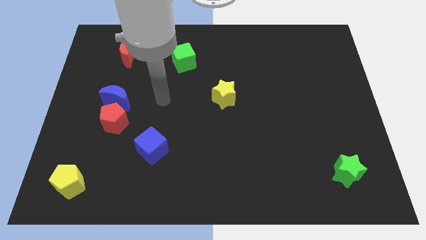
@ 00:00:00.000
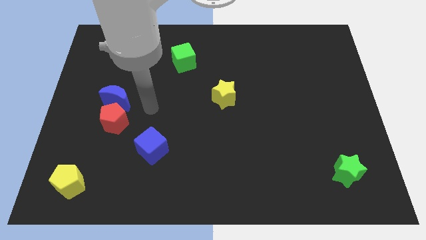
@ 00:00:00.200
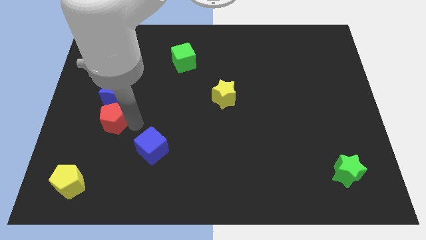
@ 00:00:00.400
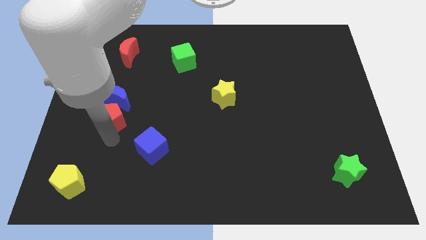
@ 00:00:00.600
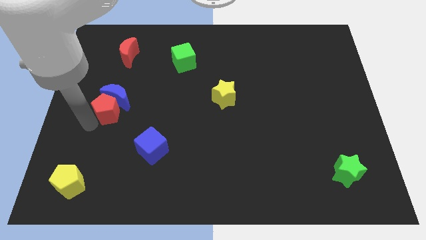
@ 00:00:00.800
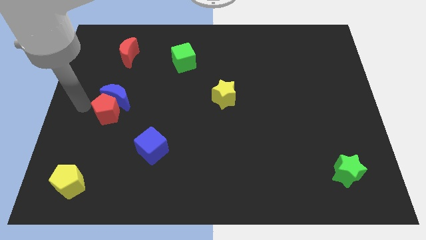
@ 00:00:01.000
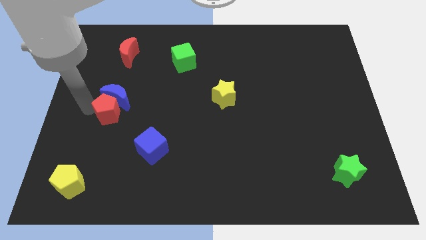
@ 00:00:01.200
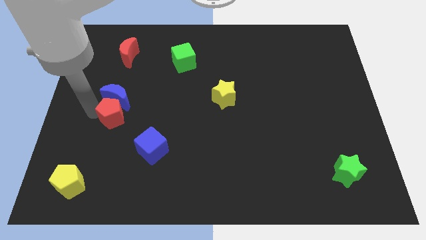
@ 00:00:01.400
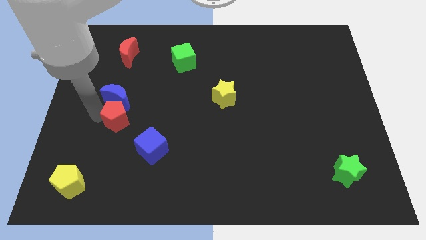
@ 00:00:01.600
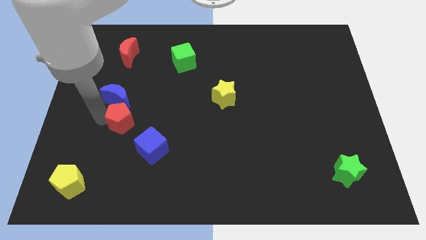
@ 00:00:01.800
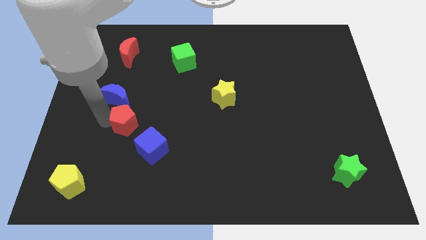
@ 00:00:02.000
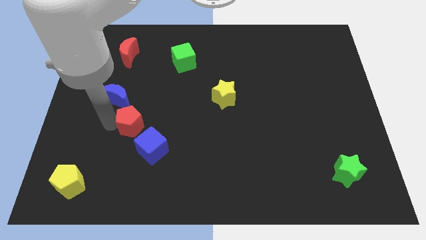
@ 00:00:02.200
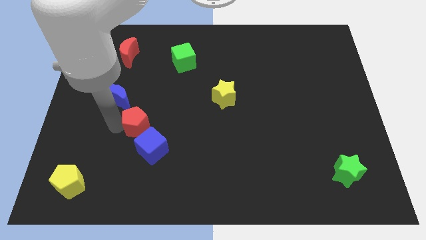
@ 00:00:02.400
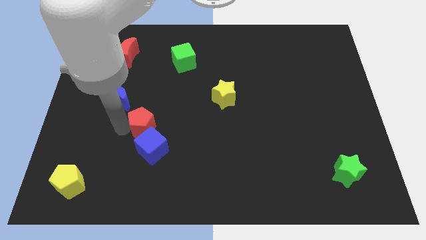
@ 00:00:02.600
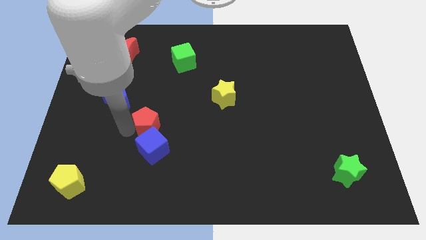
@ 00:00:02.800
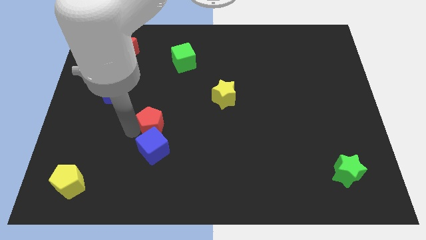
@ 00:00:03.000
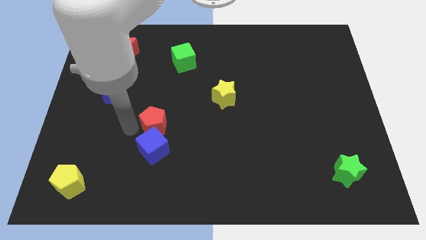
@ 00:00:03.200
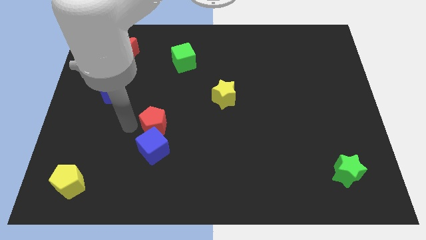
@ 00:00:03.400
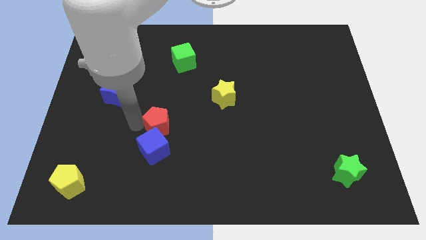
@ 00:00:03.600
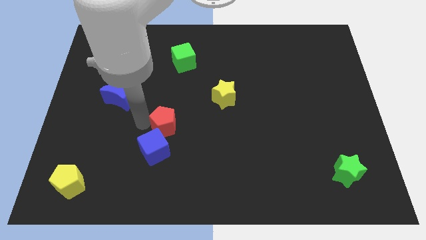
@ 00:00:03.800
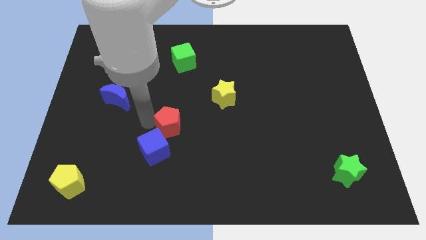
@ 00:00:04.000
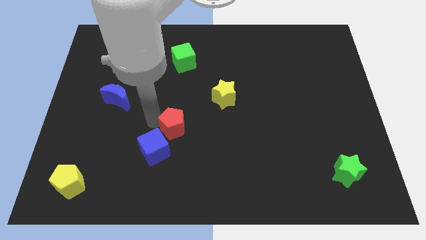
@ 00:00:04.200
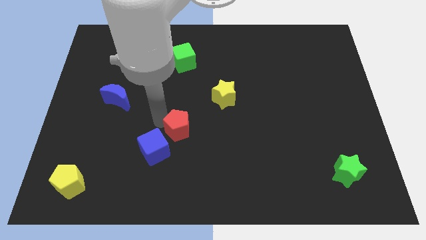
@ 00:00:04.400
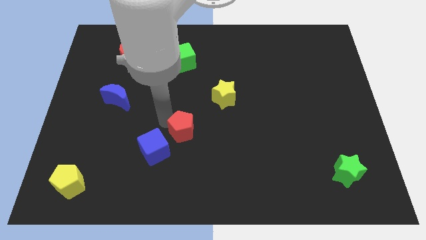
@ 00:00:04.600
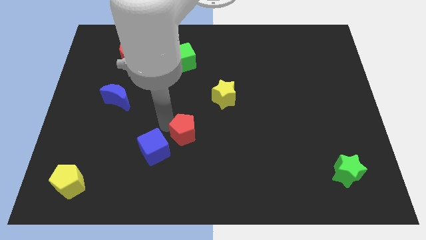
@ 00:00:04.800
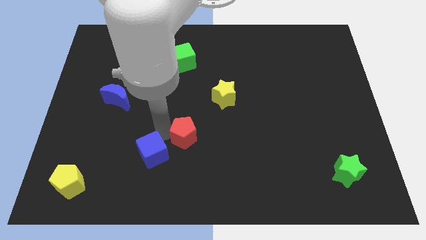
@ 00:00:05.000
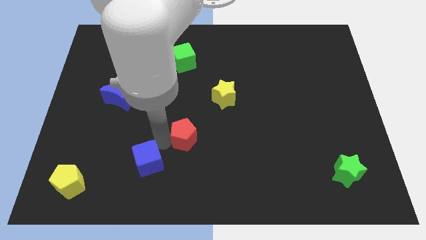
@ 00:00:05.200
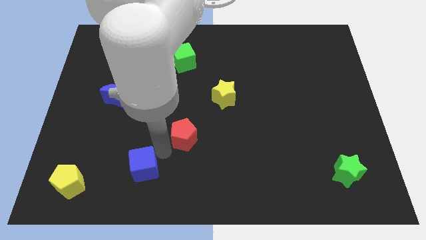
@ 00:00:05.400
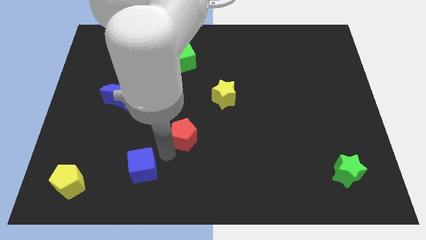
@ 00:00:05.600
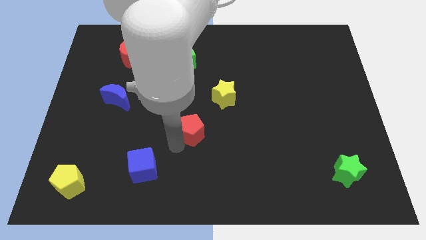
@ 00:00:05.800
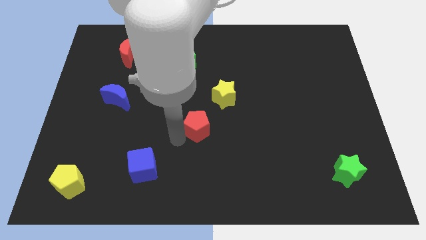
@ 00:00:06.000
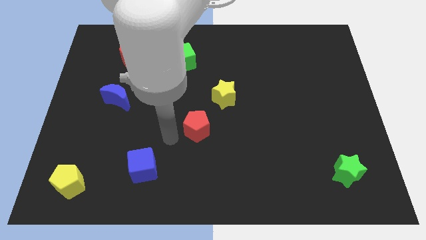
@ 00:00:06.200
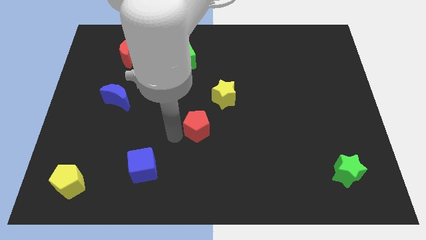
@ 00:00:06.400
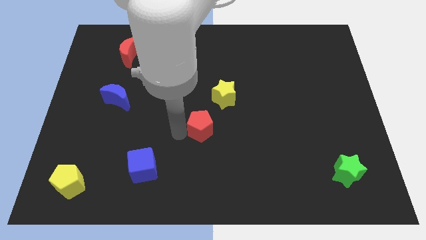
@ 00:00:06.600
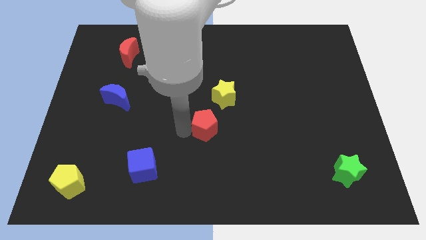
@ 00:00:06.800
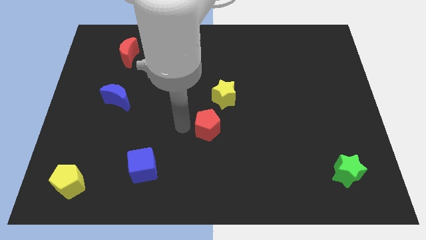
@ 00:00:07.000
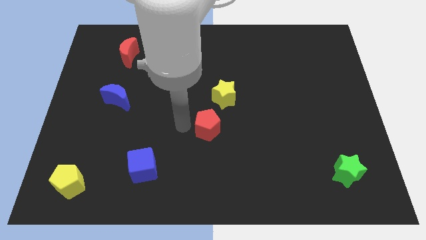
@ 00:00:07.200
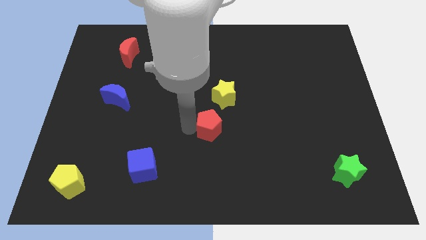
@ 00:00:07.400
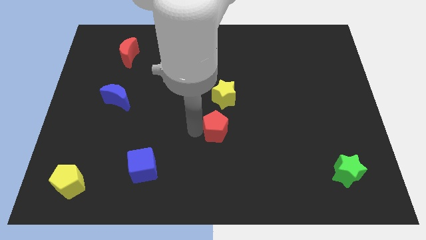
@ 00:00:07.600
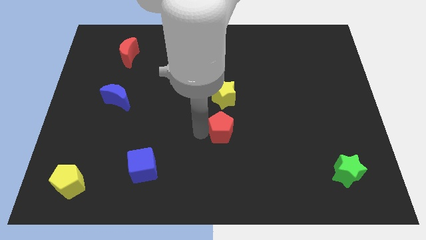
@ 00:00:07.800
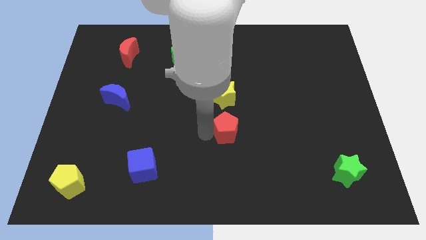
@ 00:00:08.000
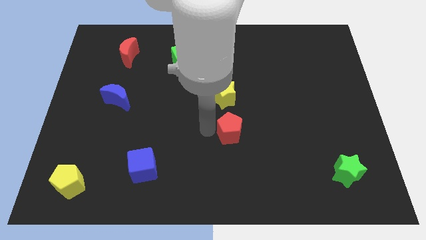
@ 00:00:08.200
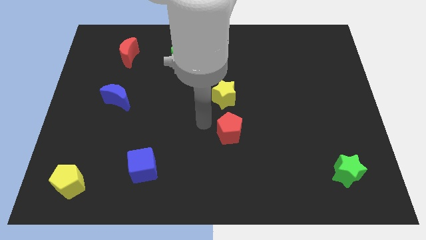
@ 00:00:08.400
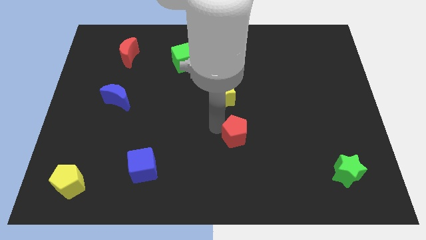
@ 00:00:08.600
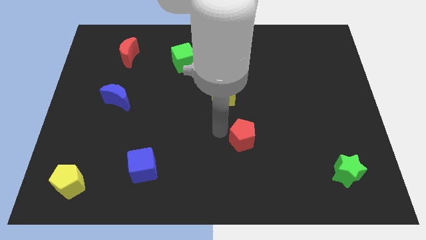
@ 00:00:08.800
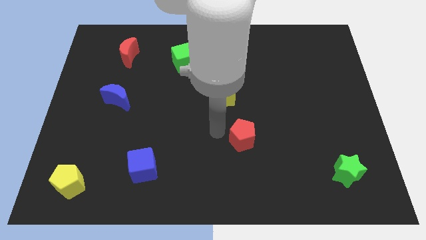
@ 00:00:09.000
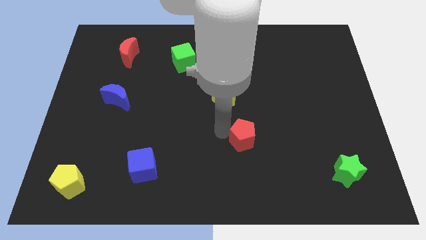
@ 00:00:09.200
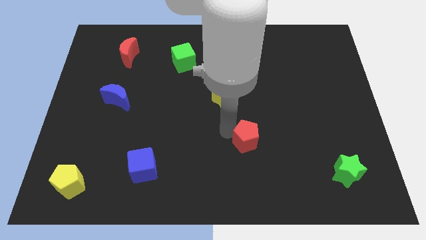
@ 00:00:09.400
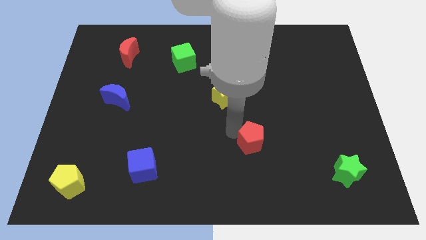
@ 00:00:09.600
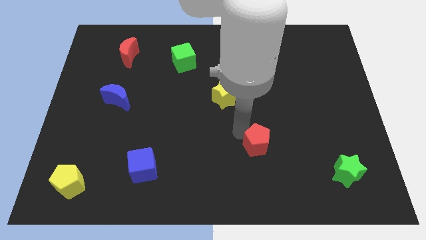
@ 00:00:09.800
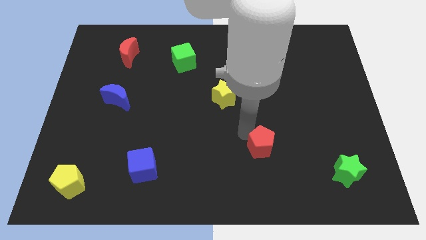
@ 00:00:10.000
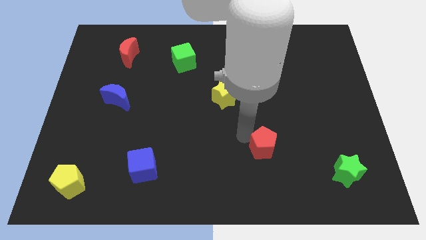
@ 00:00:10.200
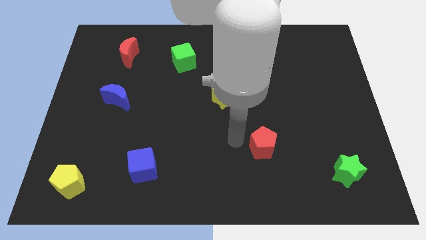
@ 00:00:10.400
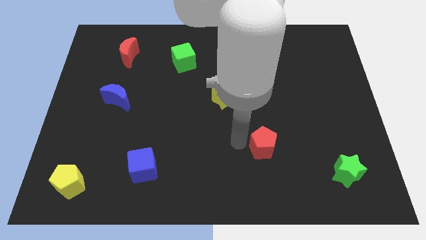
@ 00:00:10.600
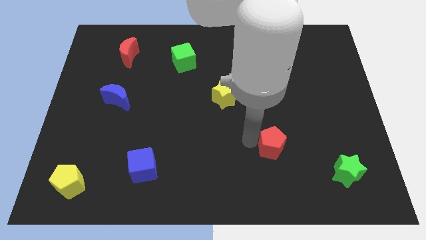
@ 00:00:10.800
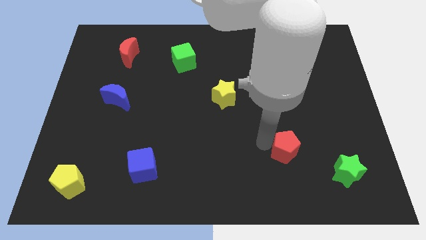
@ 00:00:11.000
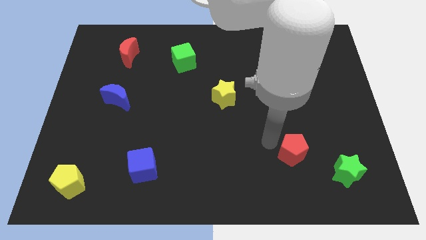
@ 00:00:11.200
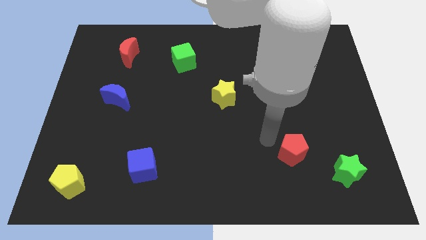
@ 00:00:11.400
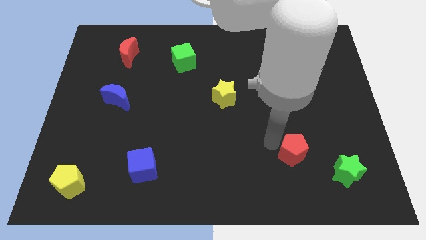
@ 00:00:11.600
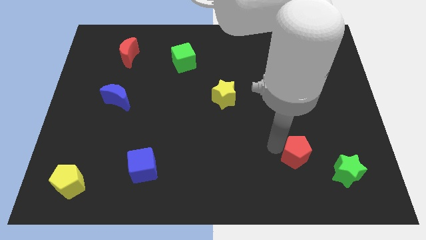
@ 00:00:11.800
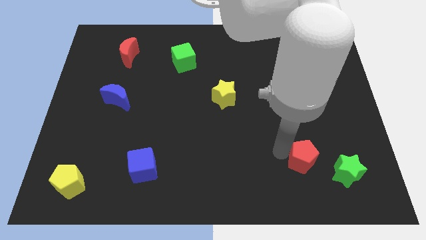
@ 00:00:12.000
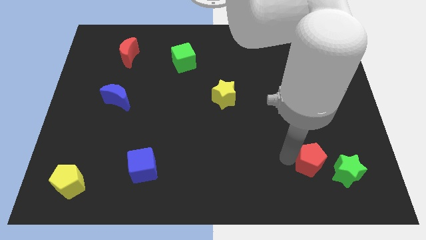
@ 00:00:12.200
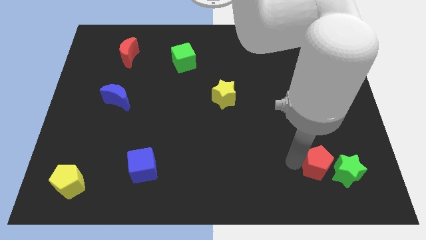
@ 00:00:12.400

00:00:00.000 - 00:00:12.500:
move the red pentagon next to the green star

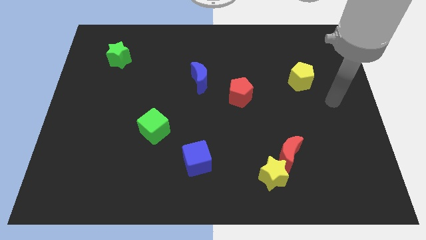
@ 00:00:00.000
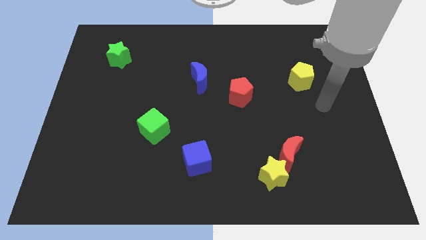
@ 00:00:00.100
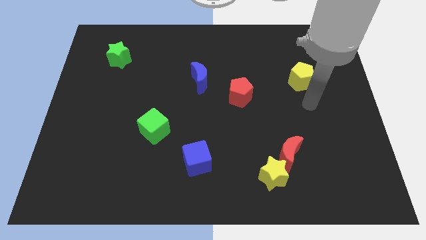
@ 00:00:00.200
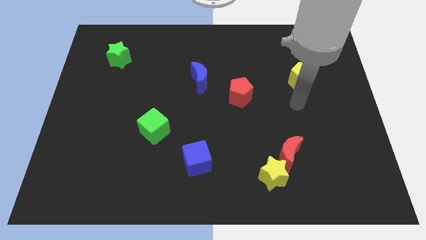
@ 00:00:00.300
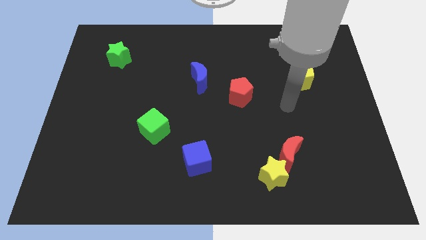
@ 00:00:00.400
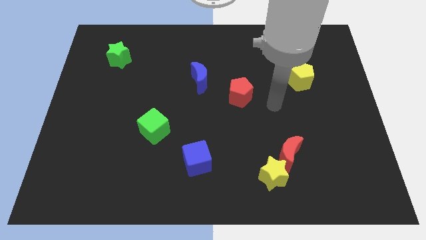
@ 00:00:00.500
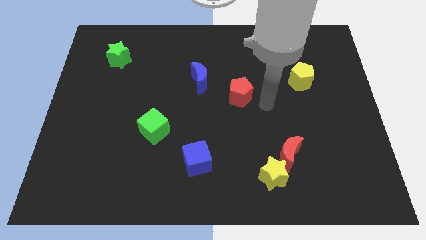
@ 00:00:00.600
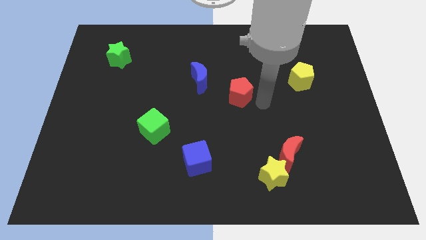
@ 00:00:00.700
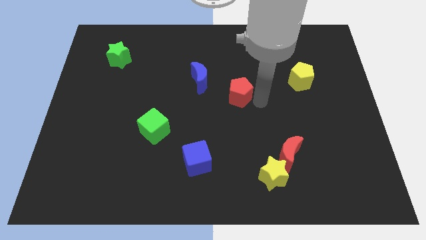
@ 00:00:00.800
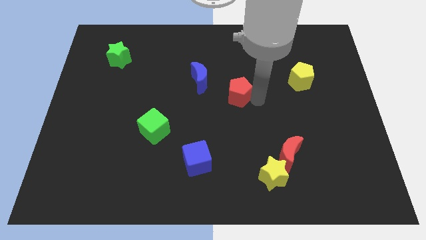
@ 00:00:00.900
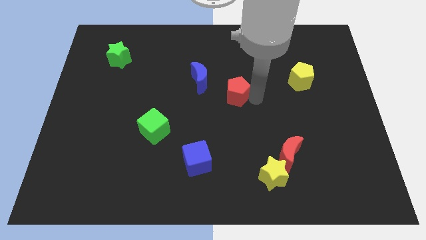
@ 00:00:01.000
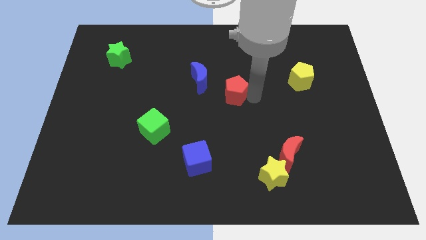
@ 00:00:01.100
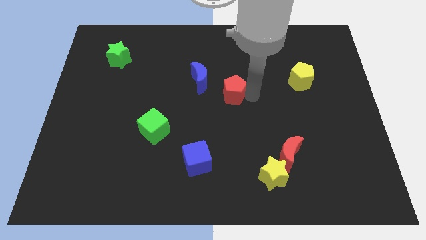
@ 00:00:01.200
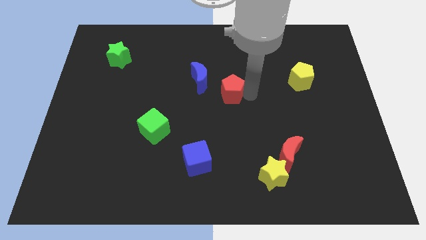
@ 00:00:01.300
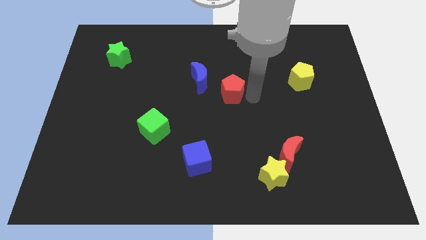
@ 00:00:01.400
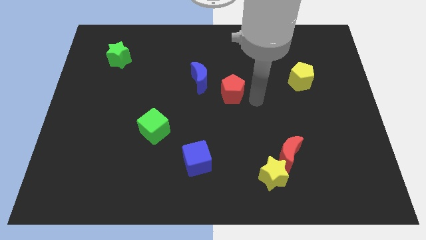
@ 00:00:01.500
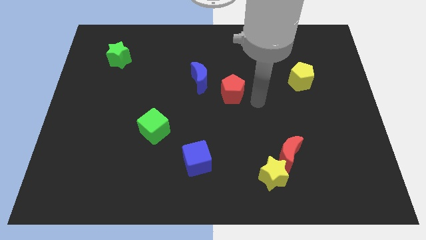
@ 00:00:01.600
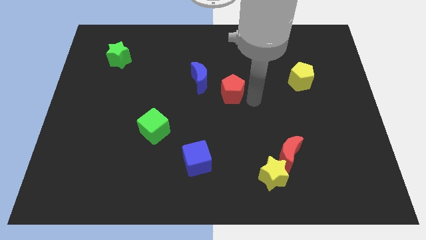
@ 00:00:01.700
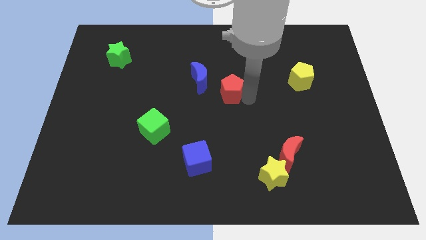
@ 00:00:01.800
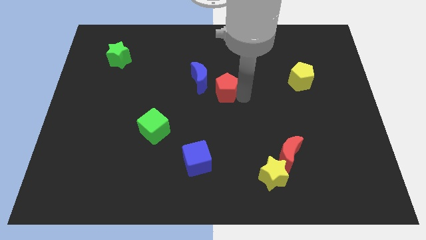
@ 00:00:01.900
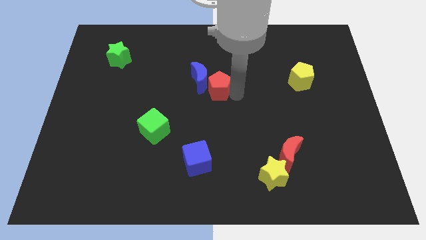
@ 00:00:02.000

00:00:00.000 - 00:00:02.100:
put the red pentagon to the blue moon
